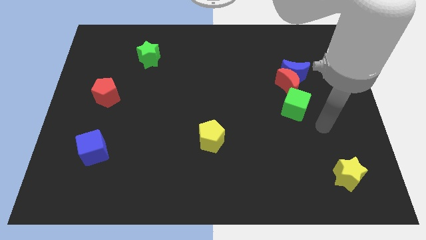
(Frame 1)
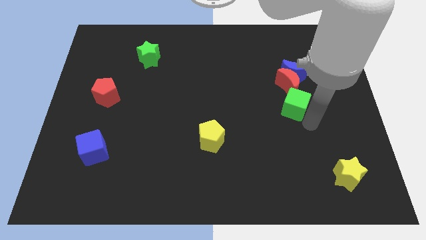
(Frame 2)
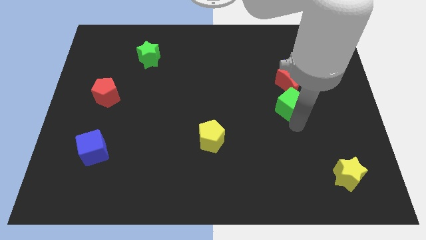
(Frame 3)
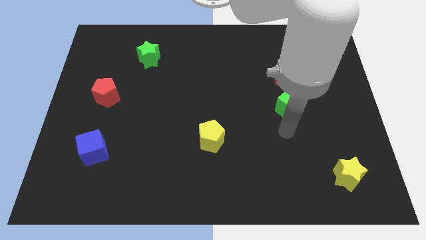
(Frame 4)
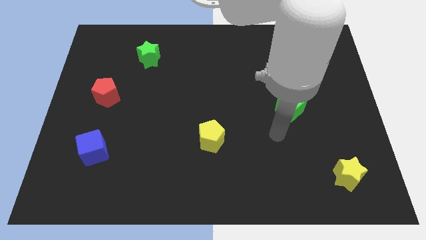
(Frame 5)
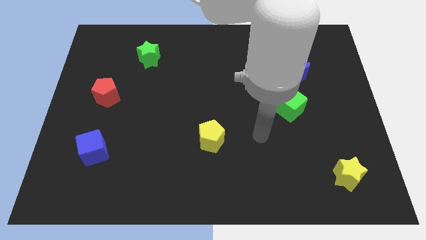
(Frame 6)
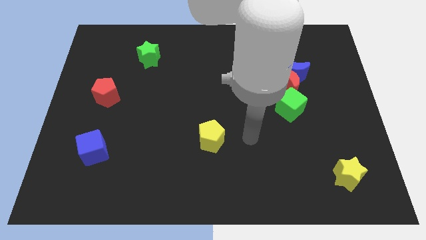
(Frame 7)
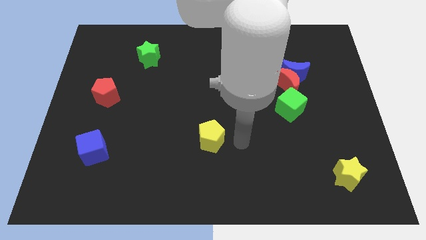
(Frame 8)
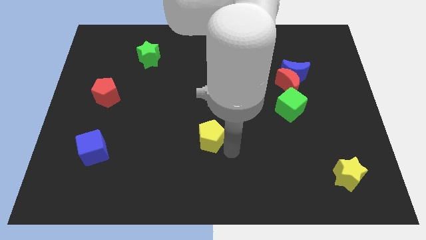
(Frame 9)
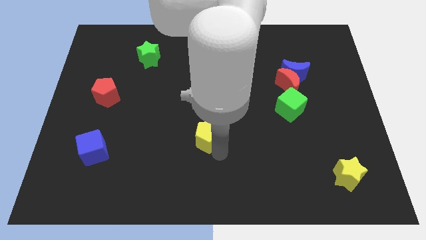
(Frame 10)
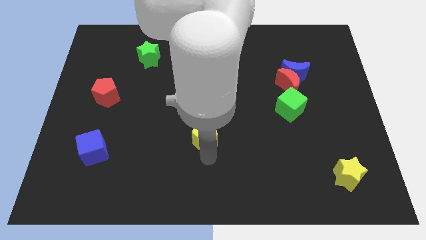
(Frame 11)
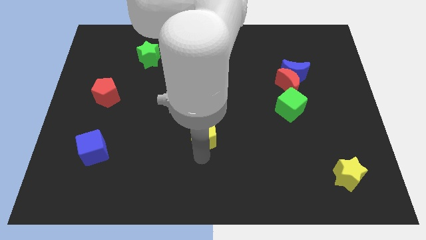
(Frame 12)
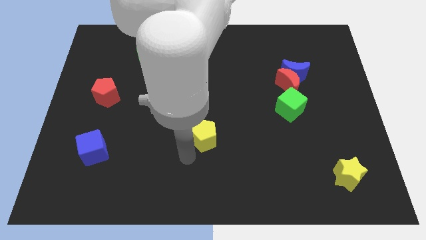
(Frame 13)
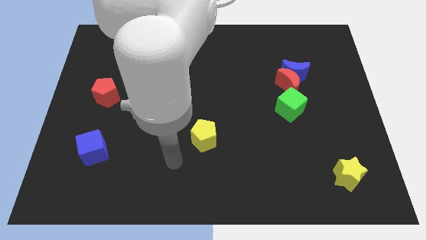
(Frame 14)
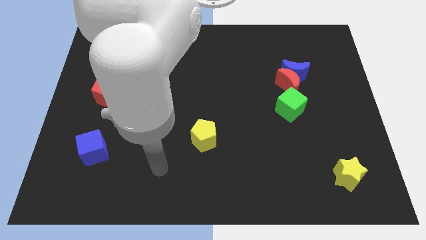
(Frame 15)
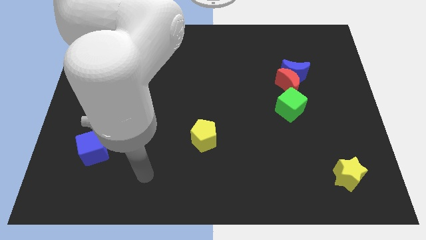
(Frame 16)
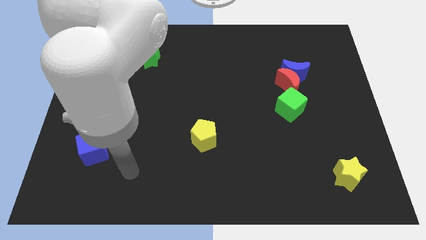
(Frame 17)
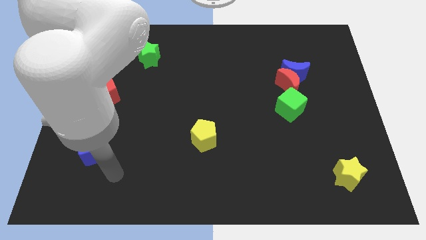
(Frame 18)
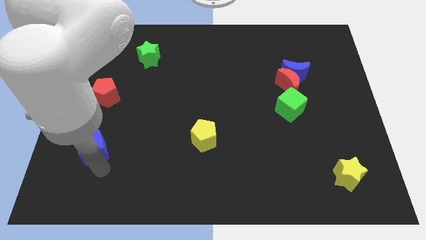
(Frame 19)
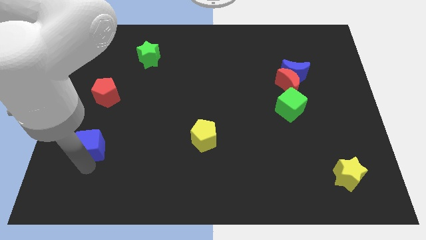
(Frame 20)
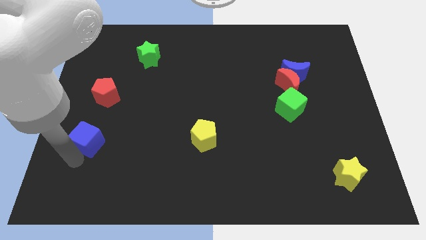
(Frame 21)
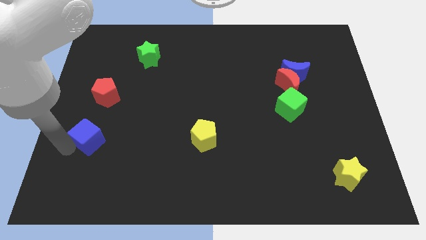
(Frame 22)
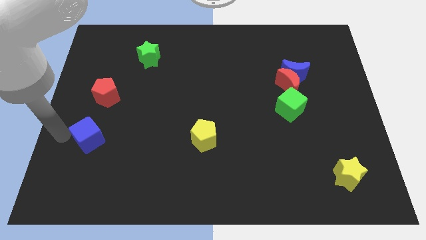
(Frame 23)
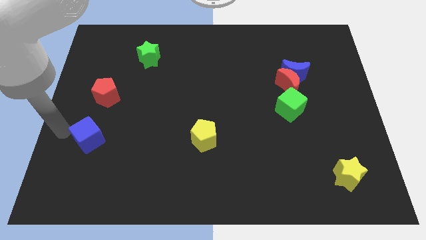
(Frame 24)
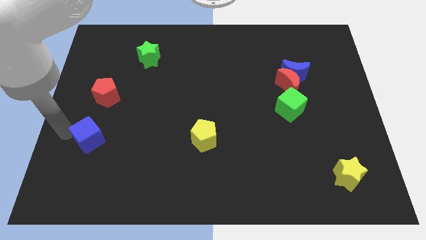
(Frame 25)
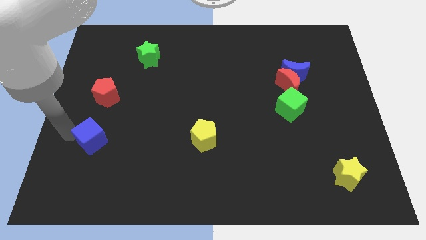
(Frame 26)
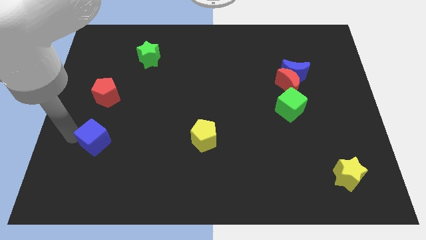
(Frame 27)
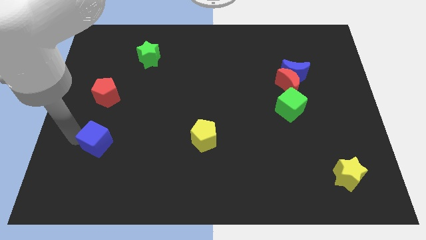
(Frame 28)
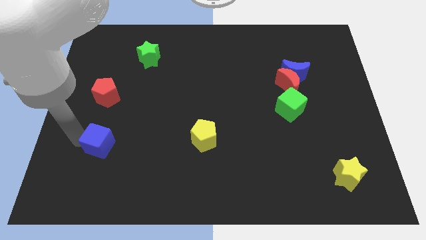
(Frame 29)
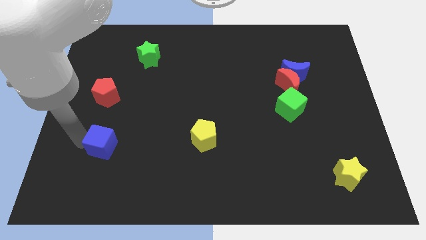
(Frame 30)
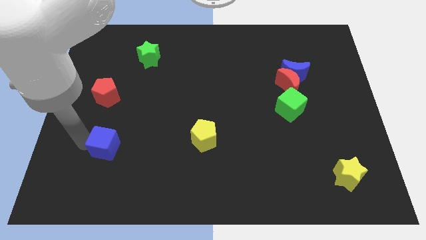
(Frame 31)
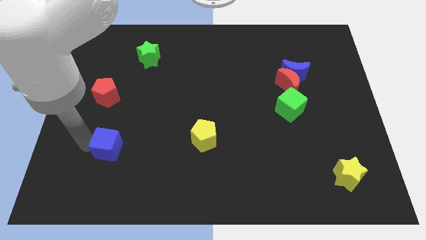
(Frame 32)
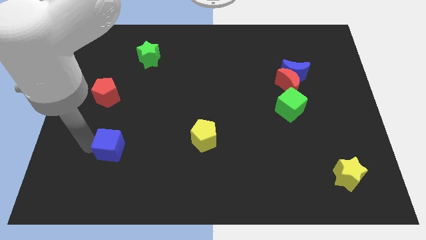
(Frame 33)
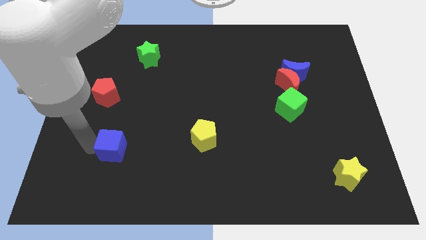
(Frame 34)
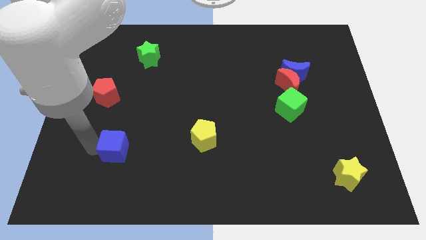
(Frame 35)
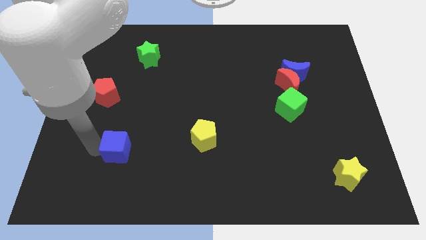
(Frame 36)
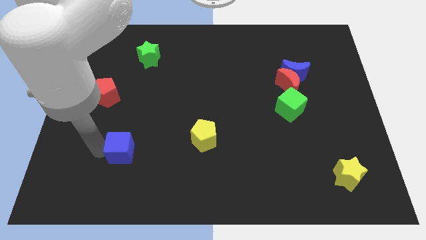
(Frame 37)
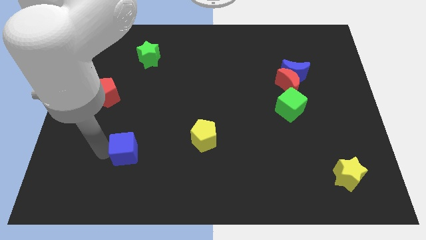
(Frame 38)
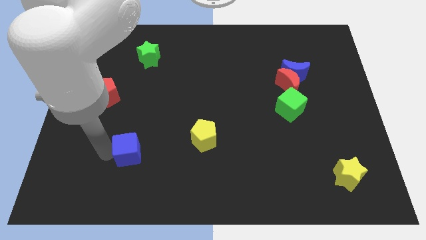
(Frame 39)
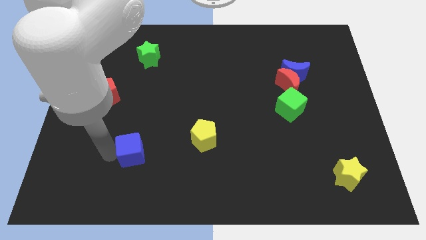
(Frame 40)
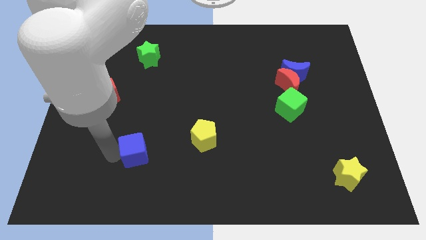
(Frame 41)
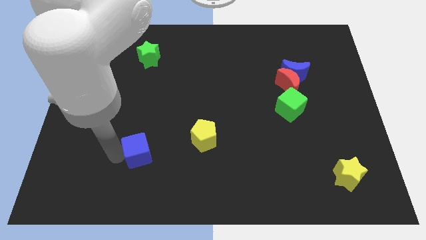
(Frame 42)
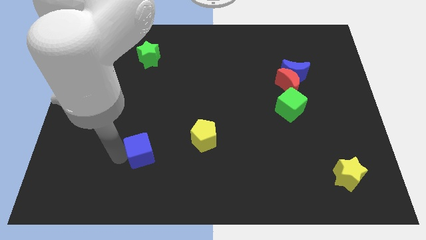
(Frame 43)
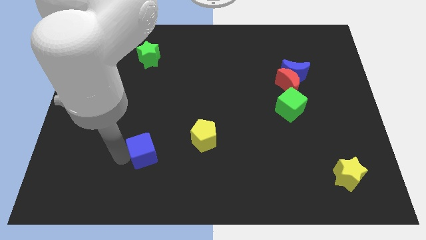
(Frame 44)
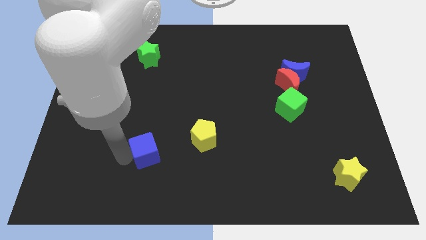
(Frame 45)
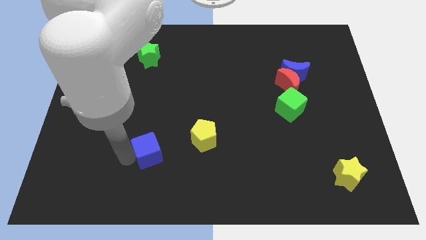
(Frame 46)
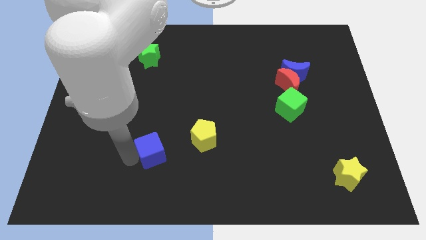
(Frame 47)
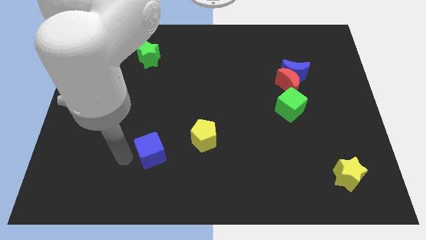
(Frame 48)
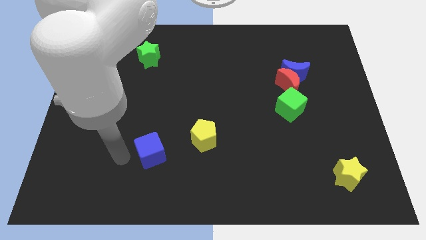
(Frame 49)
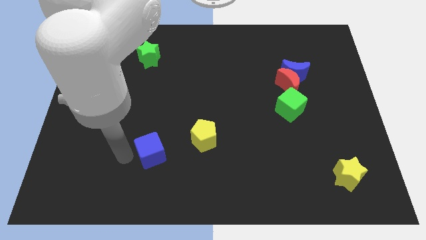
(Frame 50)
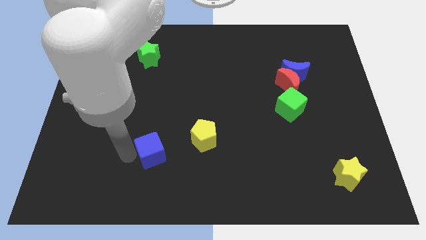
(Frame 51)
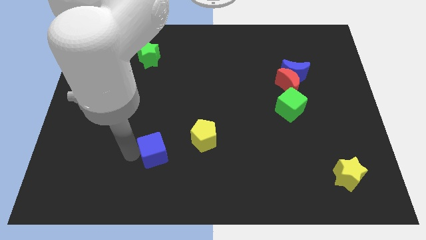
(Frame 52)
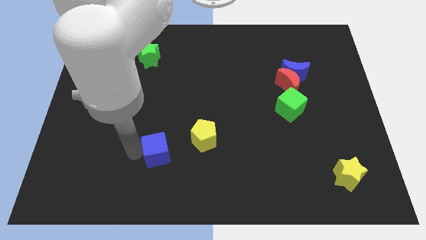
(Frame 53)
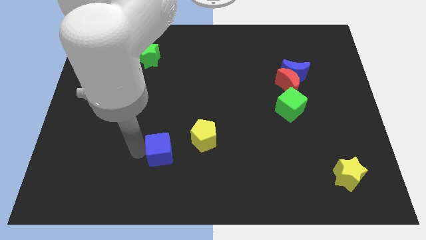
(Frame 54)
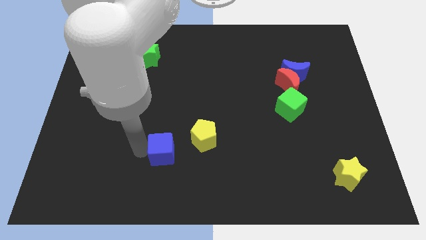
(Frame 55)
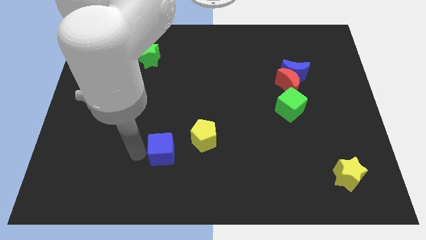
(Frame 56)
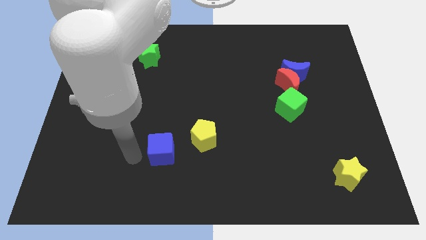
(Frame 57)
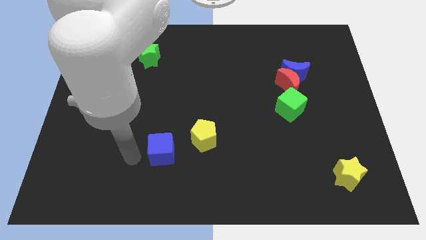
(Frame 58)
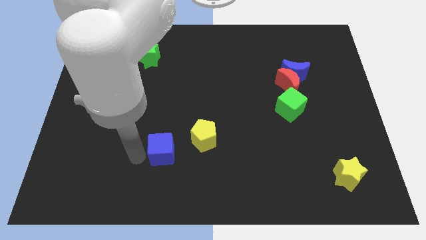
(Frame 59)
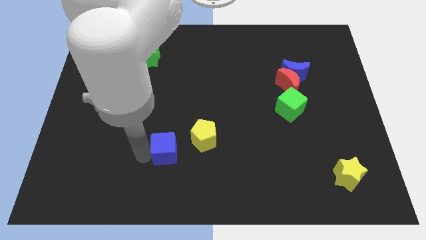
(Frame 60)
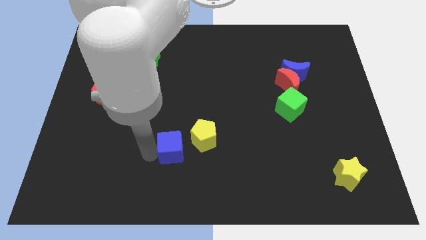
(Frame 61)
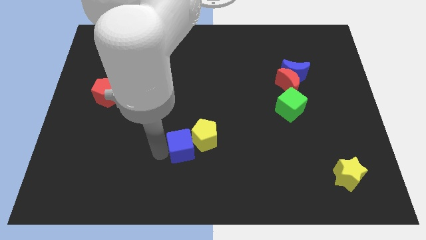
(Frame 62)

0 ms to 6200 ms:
move the blue cube to the yellow pentagon

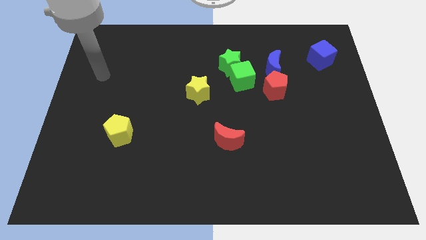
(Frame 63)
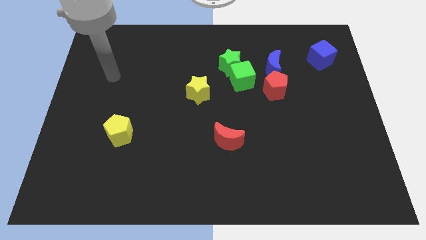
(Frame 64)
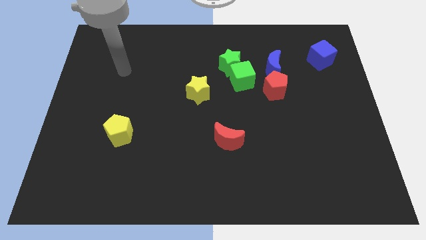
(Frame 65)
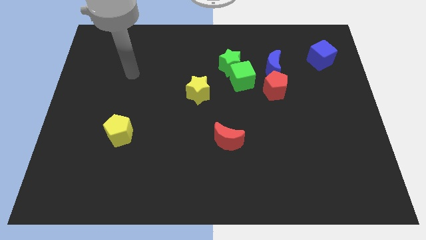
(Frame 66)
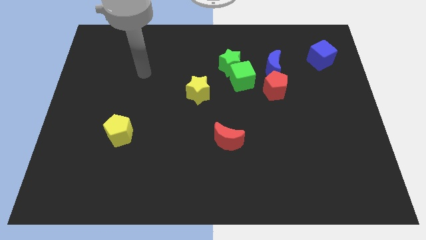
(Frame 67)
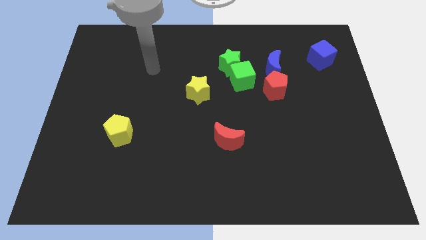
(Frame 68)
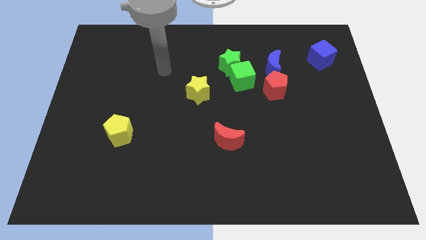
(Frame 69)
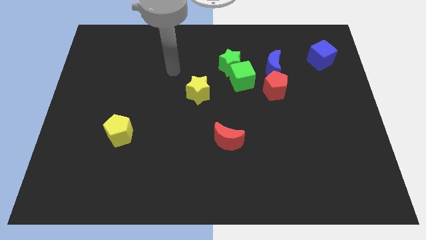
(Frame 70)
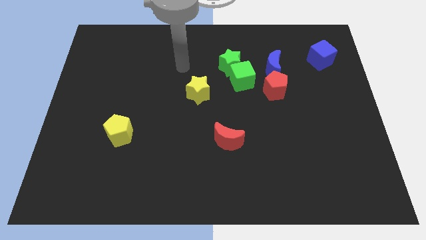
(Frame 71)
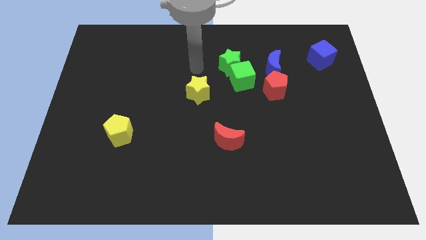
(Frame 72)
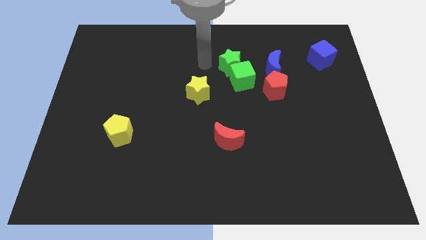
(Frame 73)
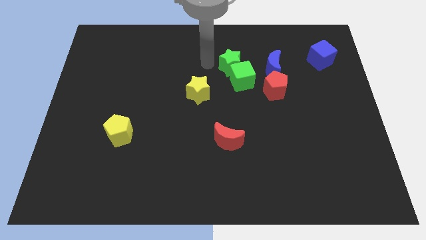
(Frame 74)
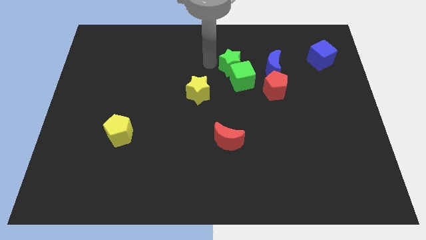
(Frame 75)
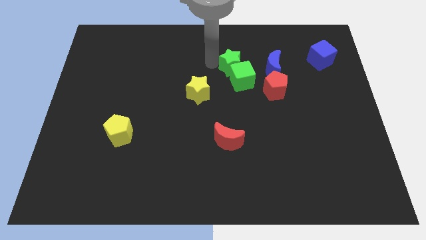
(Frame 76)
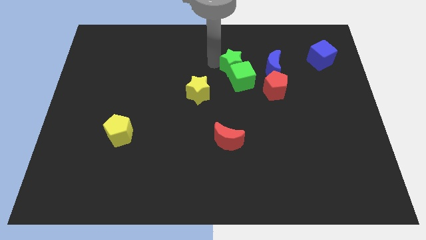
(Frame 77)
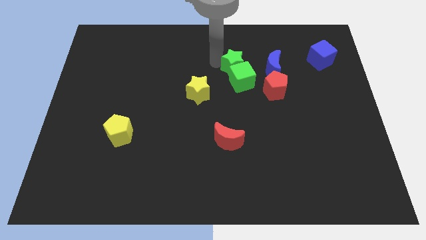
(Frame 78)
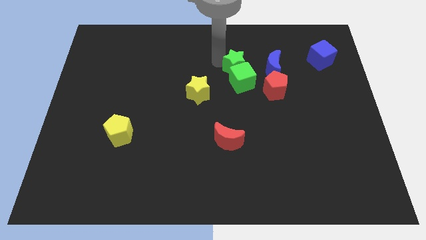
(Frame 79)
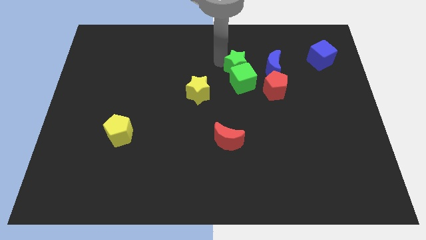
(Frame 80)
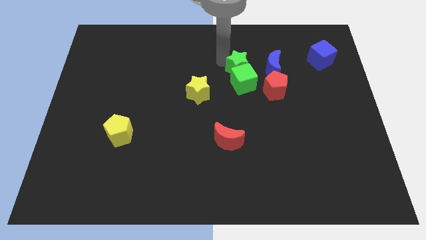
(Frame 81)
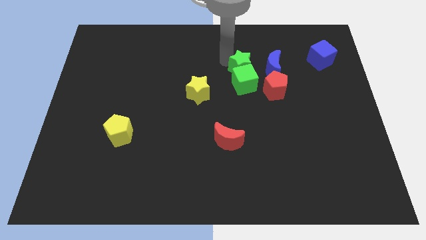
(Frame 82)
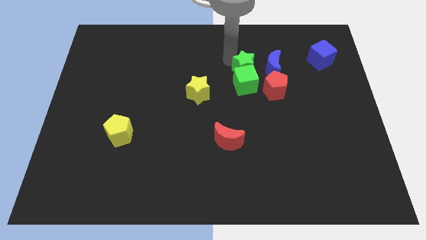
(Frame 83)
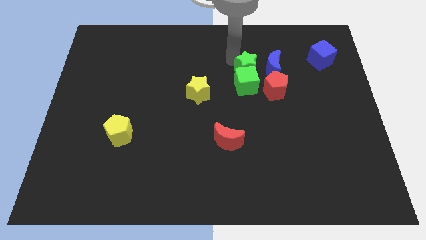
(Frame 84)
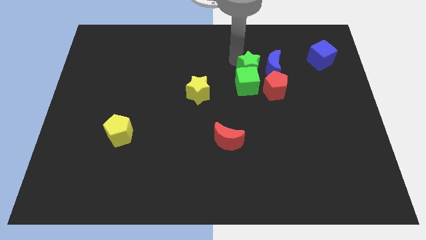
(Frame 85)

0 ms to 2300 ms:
slide the green star next to the blue moon
